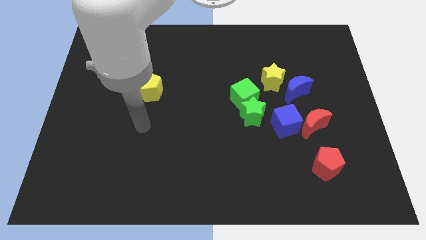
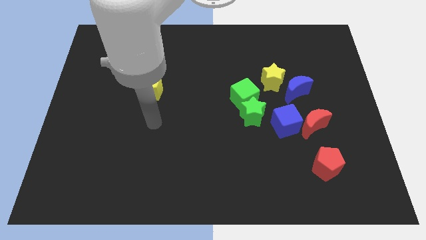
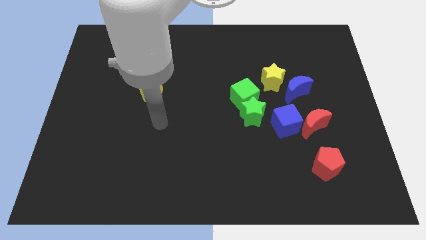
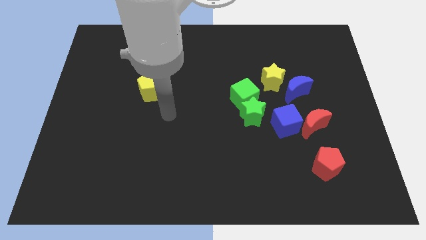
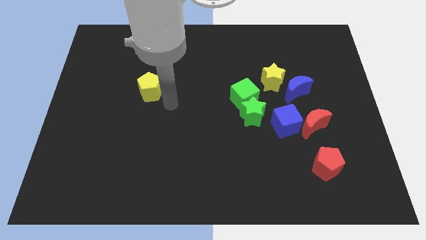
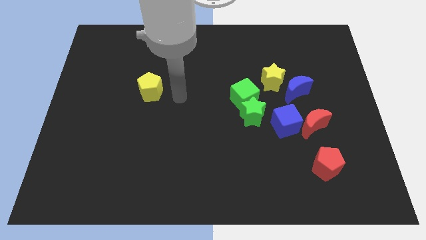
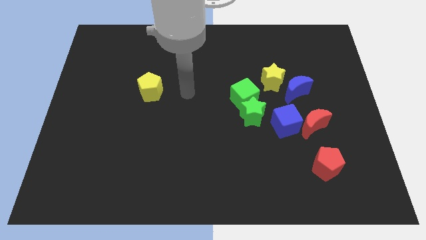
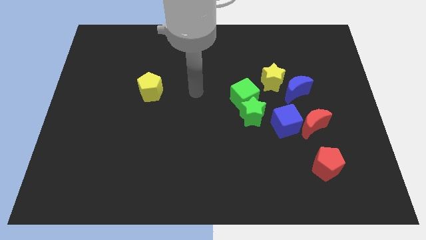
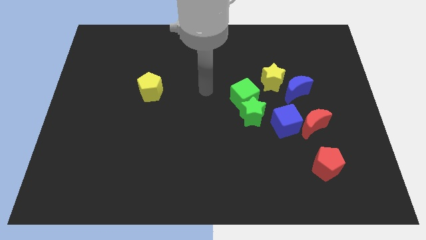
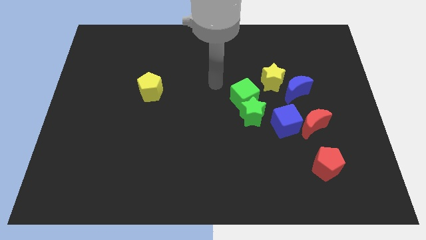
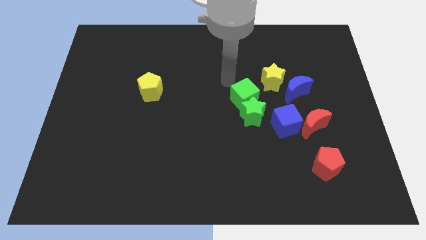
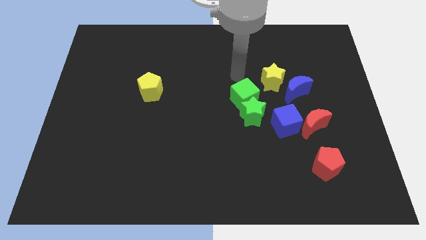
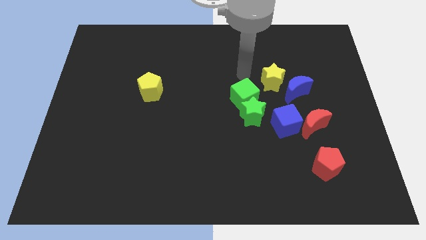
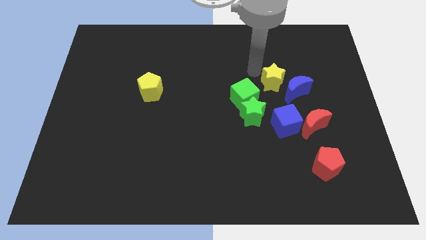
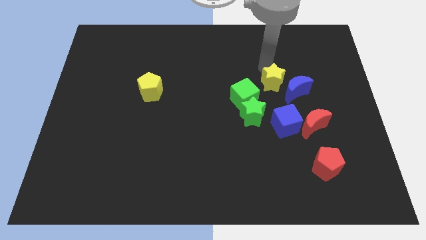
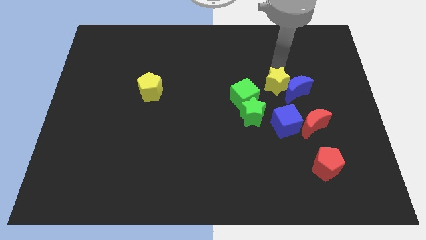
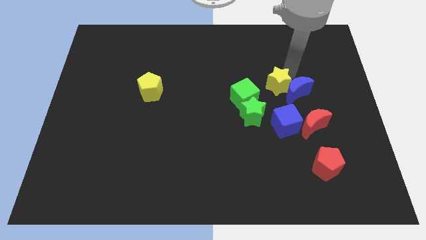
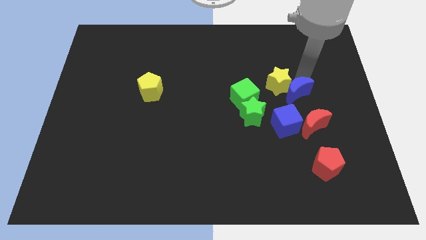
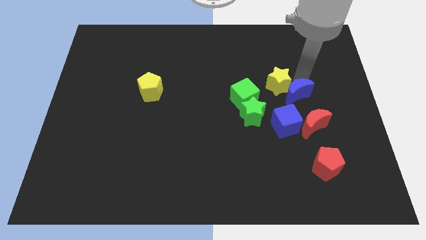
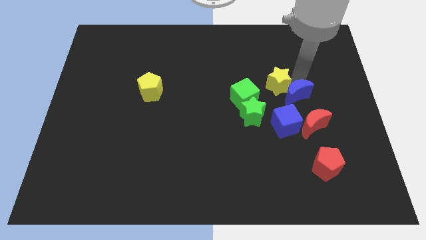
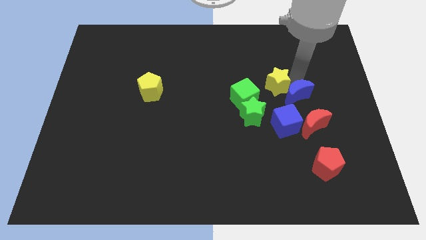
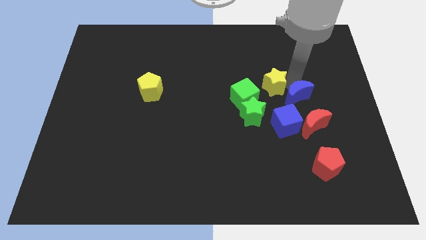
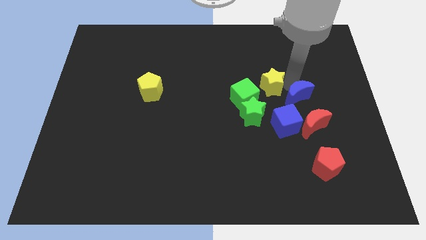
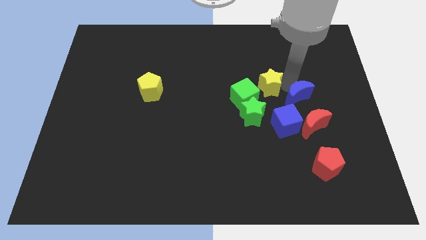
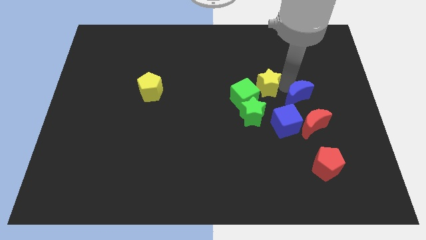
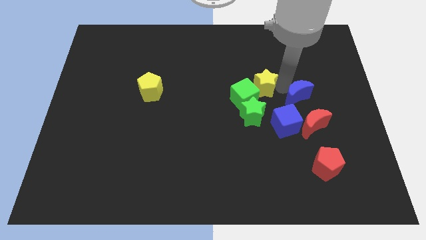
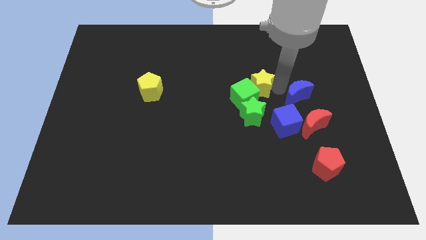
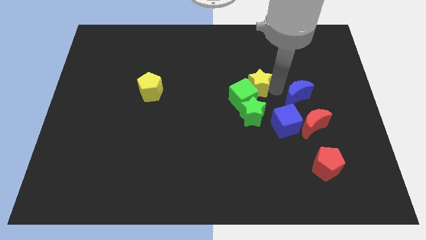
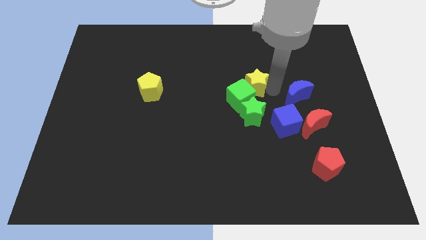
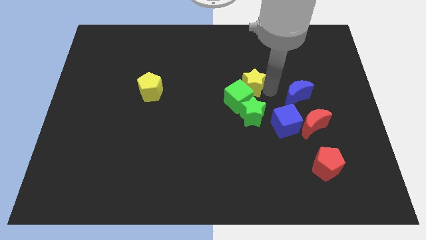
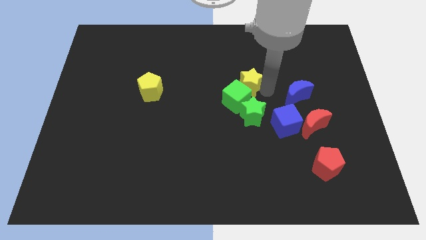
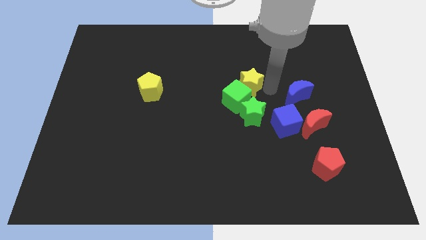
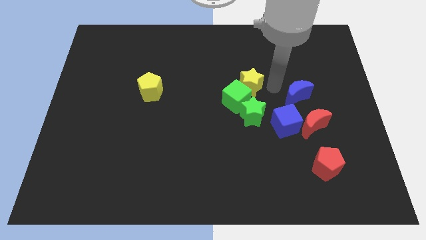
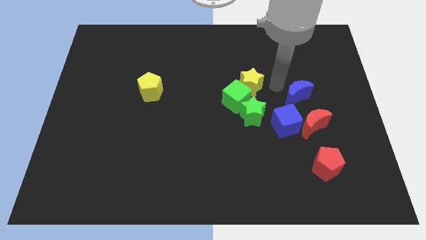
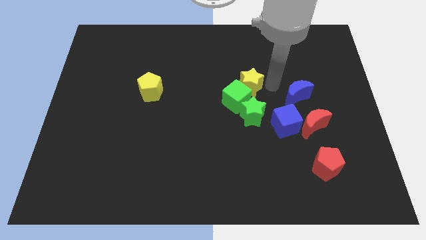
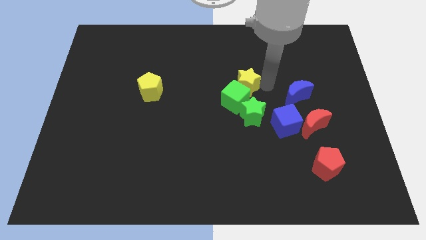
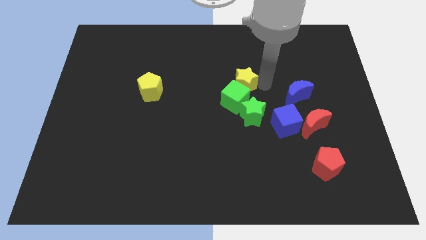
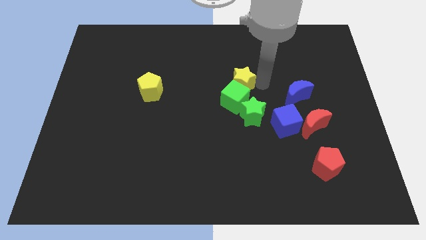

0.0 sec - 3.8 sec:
slightly slide the yellow star to the left

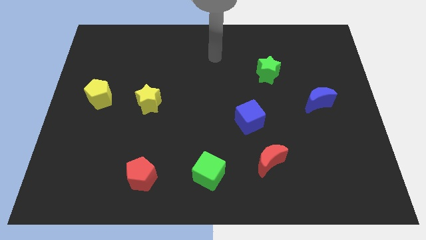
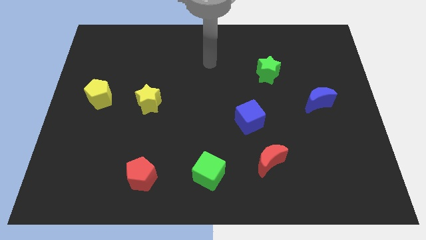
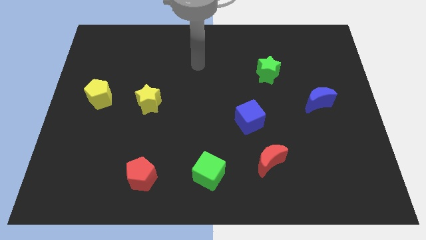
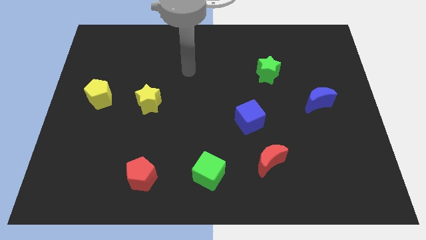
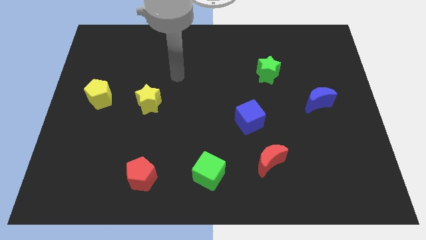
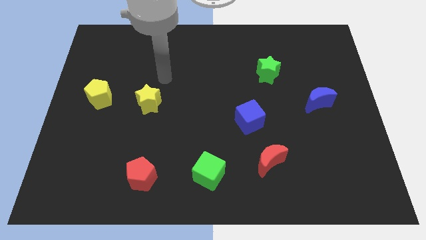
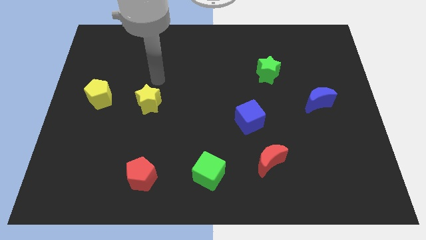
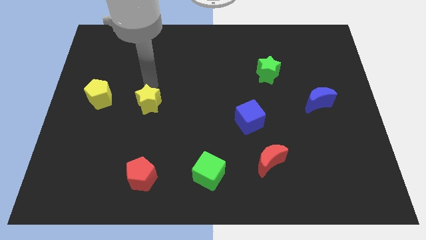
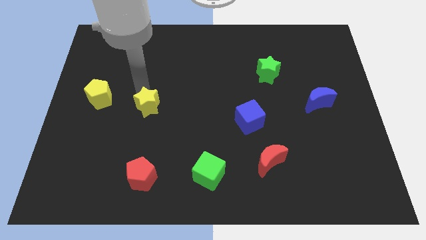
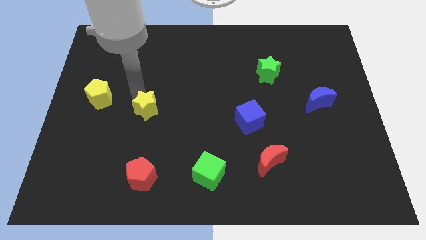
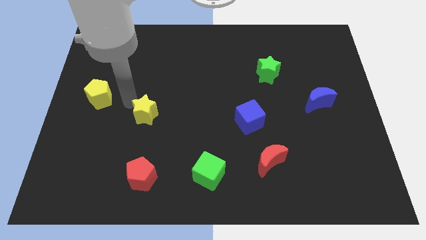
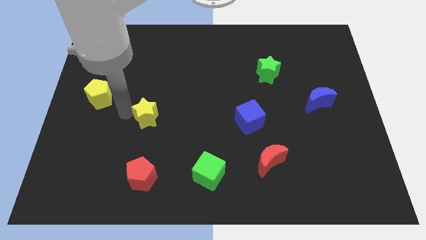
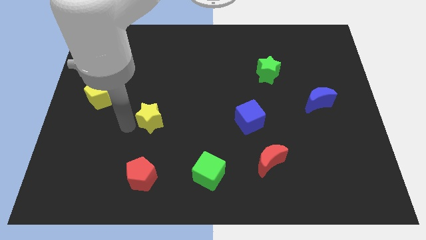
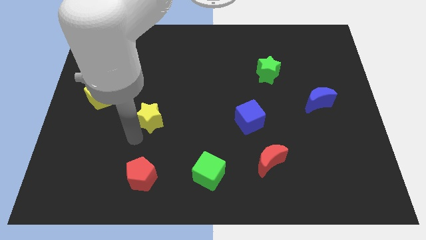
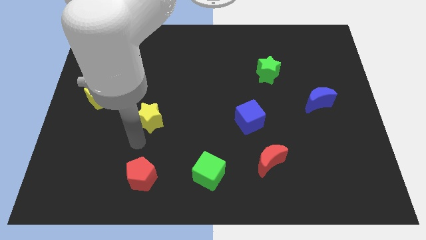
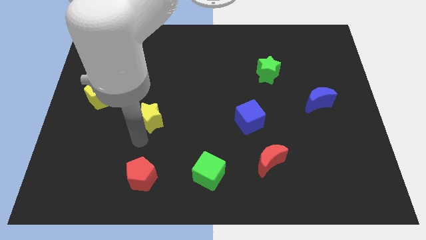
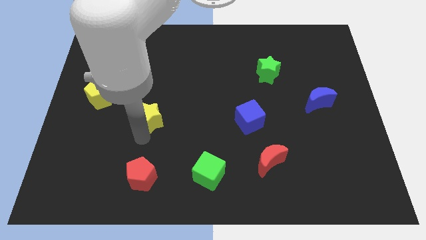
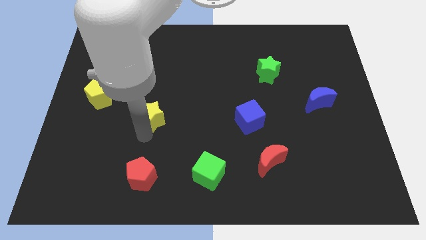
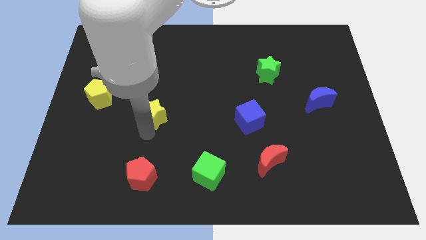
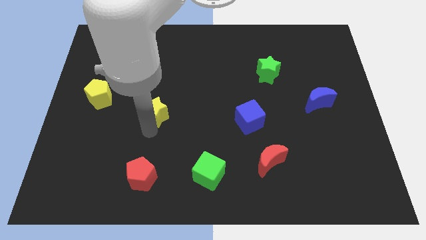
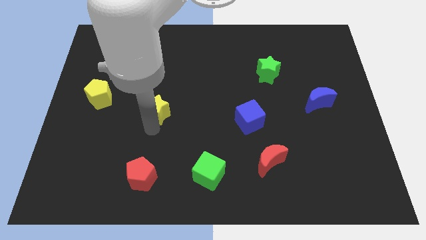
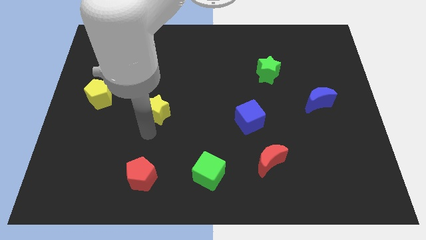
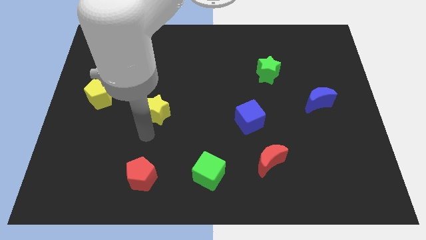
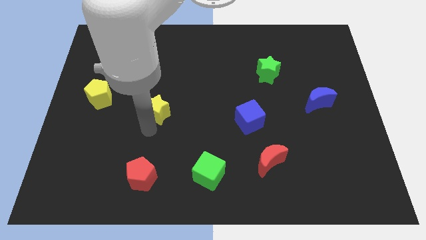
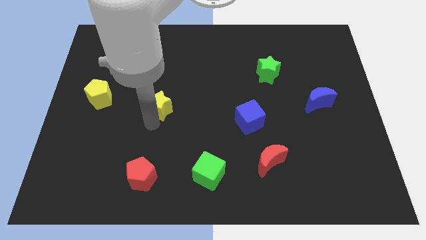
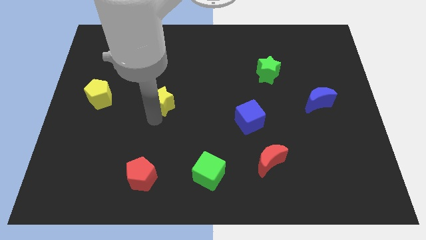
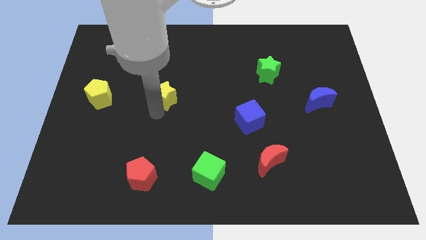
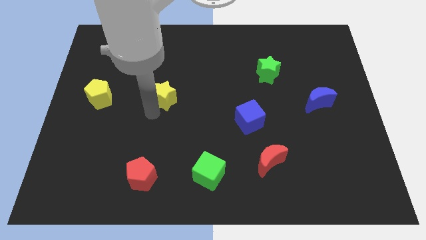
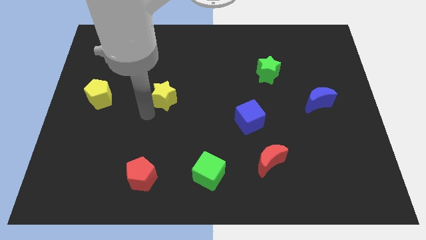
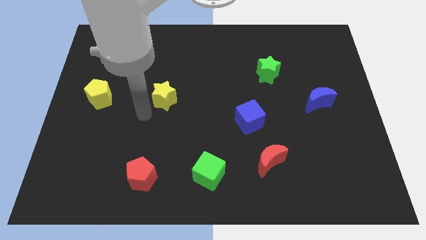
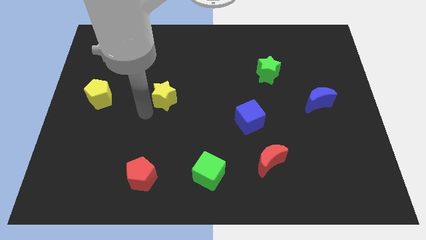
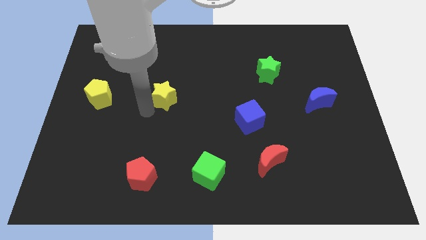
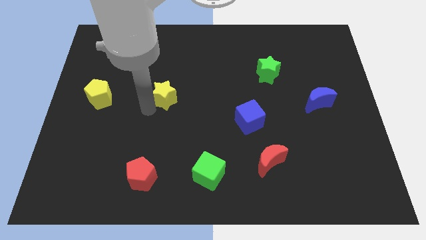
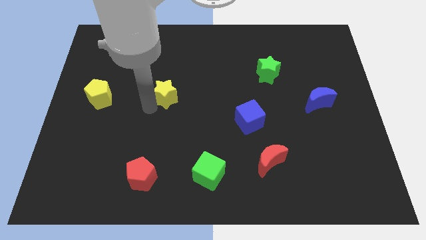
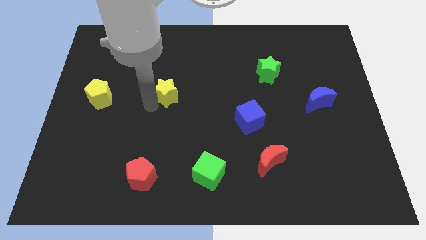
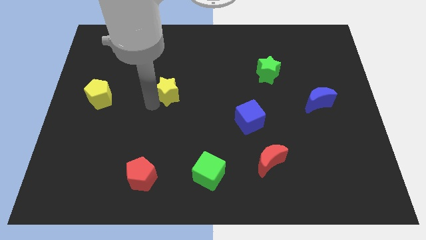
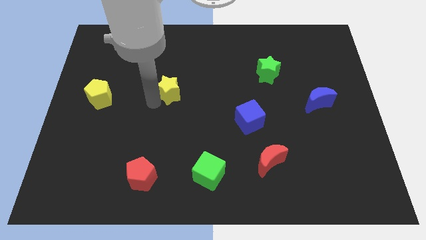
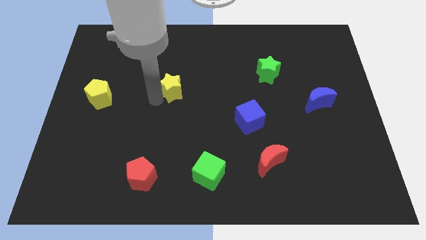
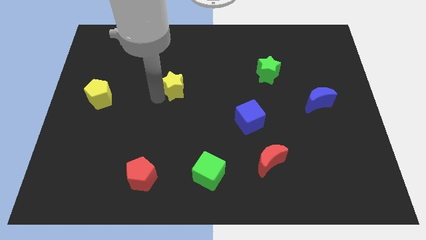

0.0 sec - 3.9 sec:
move the yellow star a little bit upwards and to the right diagonally

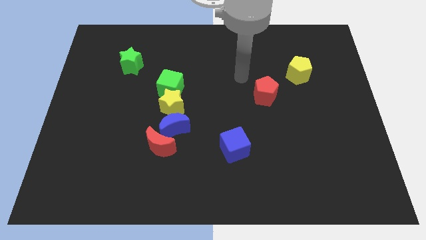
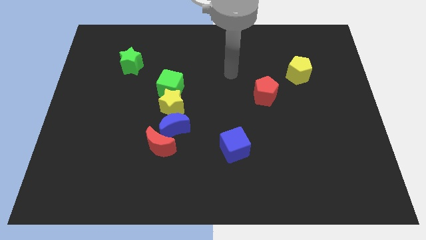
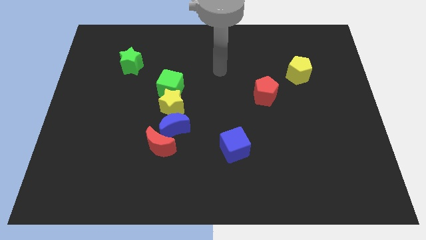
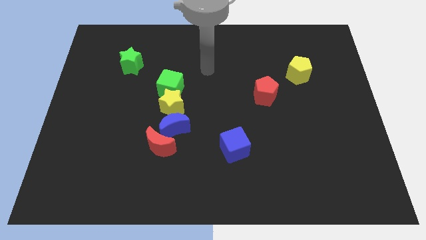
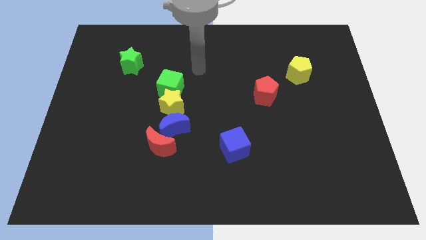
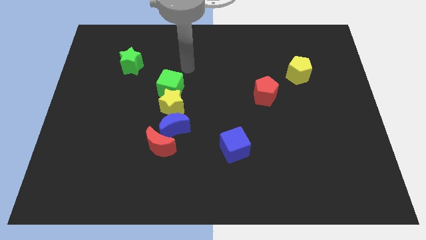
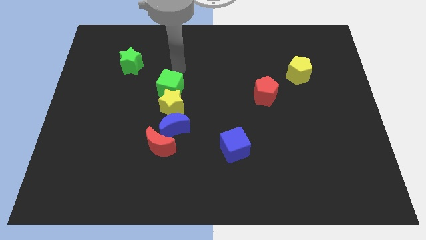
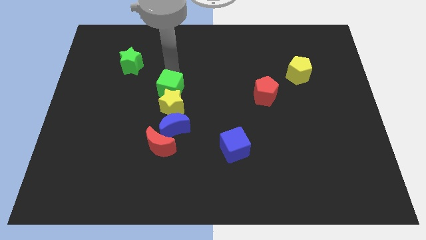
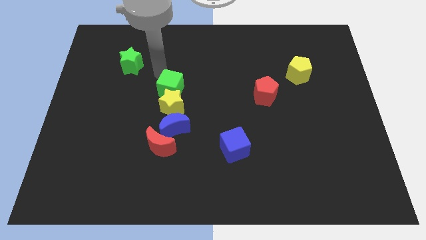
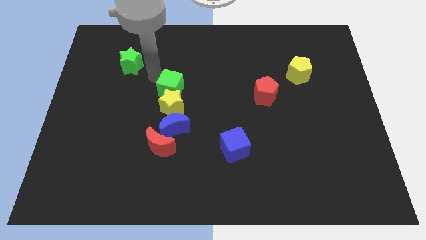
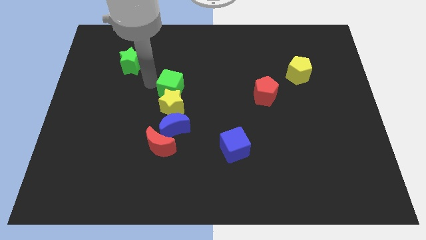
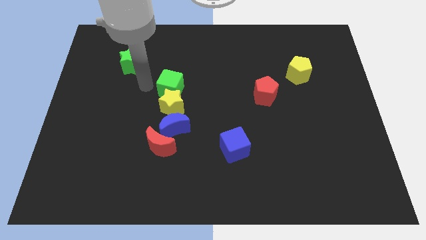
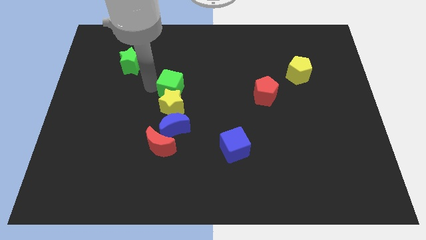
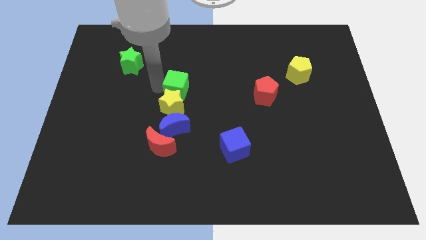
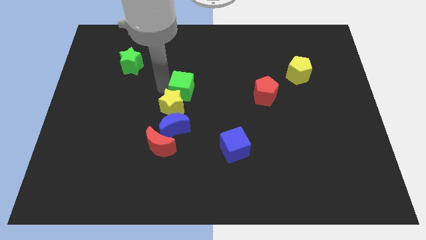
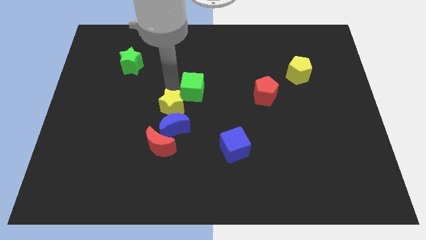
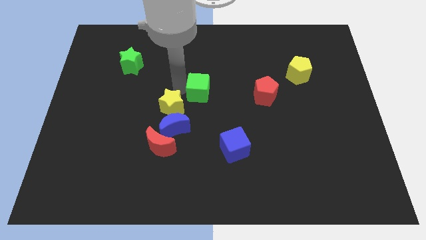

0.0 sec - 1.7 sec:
slightly push the green cube to the right
